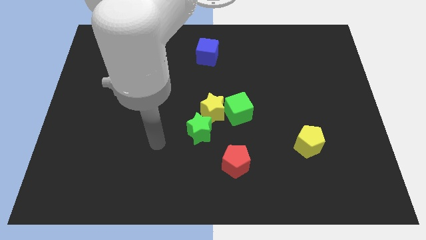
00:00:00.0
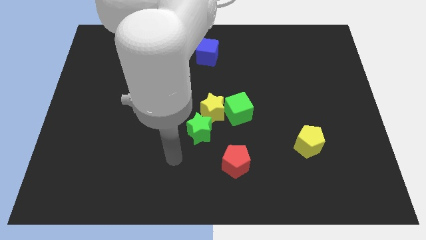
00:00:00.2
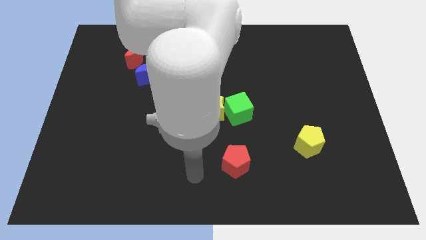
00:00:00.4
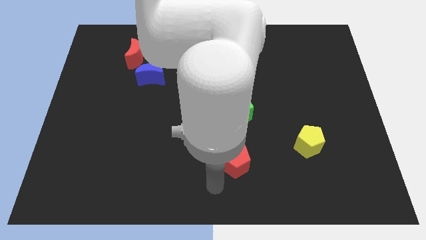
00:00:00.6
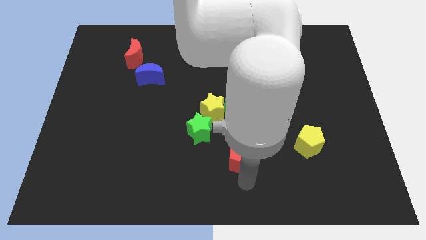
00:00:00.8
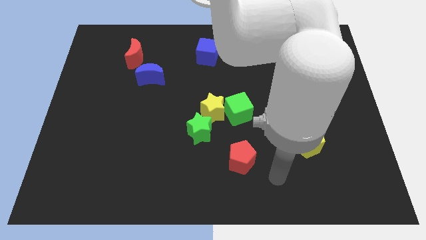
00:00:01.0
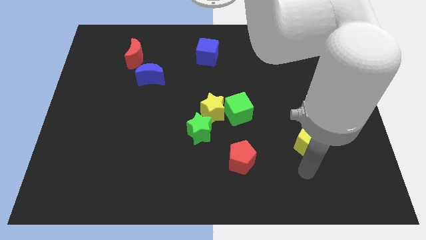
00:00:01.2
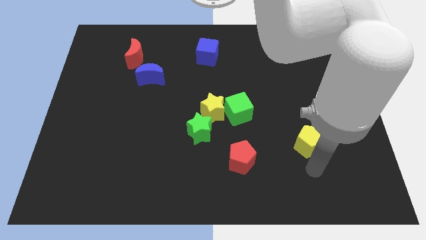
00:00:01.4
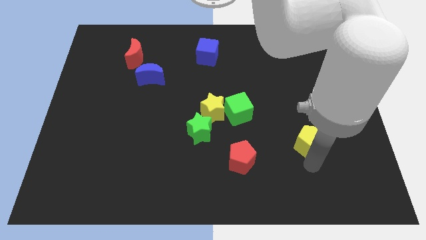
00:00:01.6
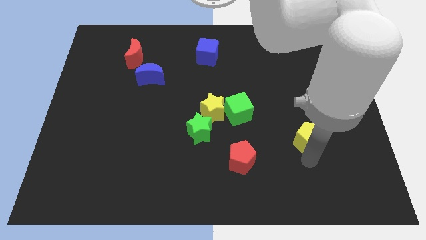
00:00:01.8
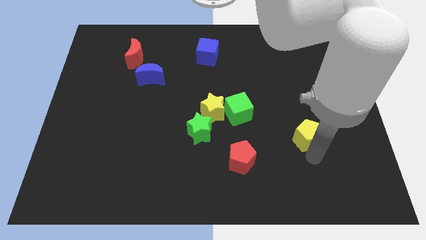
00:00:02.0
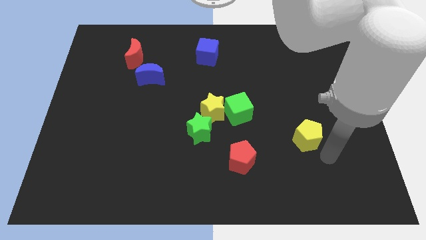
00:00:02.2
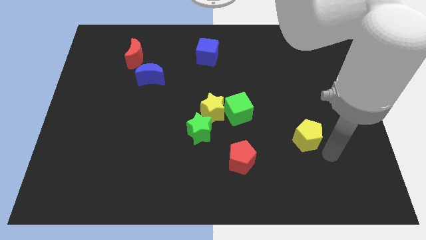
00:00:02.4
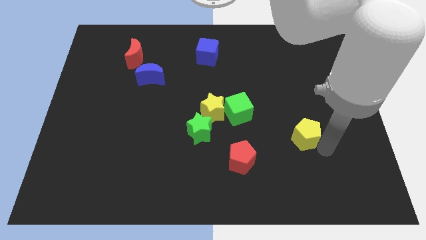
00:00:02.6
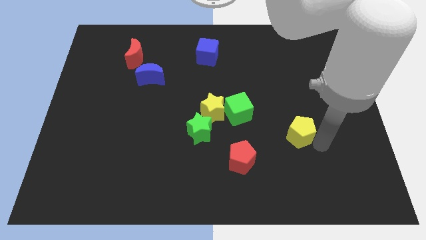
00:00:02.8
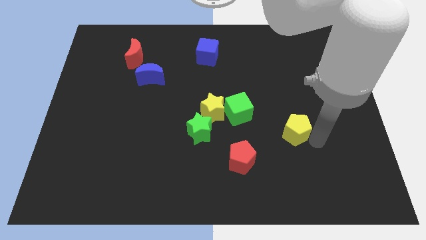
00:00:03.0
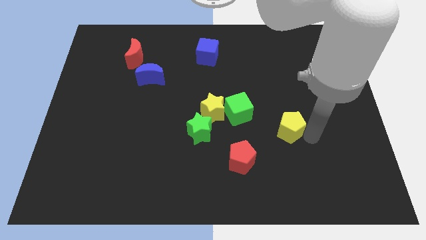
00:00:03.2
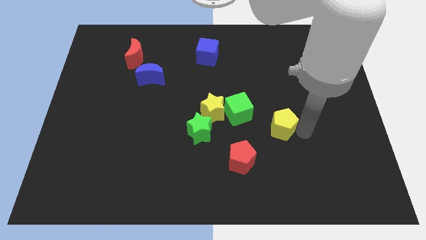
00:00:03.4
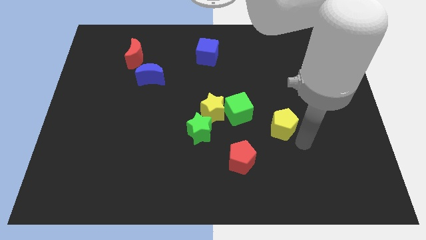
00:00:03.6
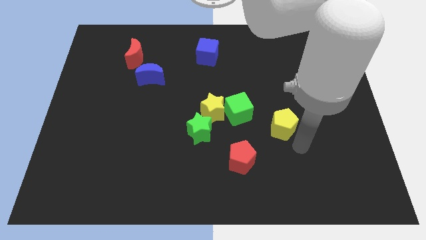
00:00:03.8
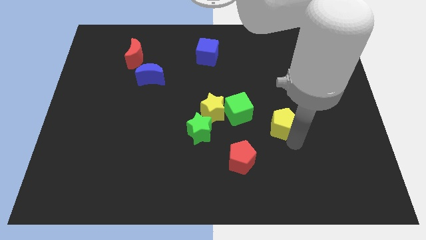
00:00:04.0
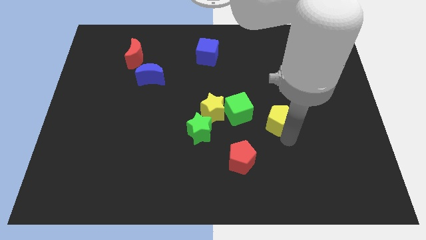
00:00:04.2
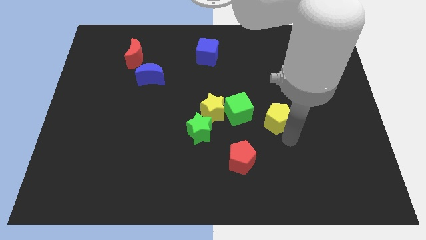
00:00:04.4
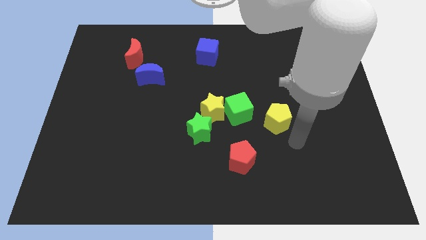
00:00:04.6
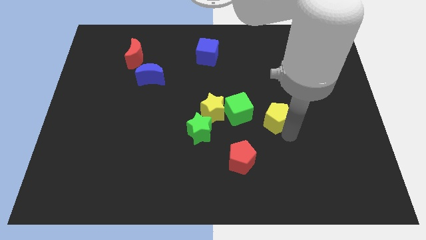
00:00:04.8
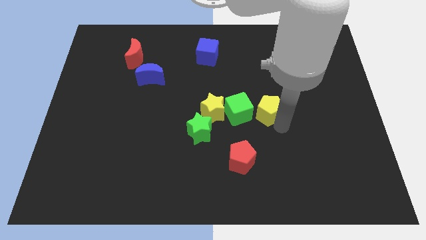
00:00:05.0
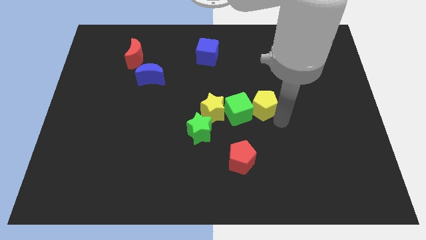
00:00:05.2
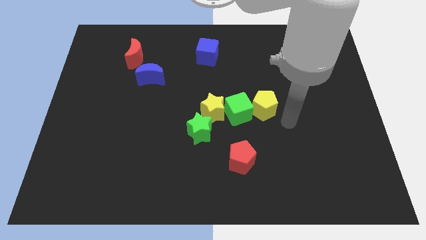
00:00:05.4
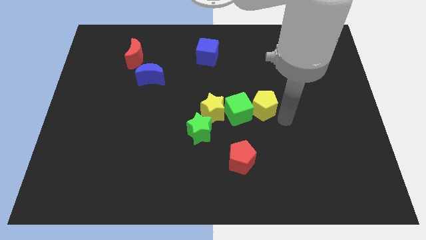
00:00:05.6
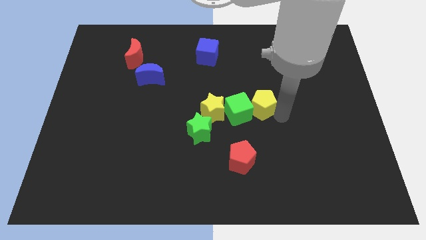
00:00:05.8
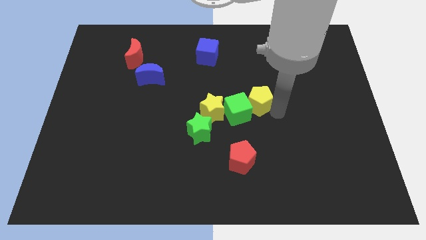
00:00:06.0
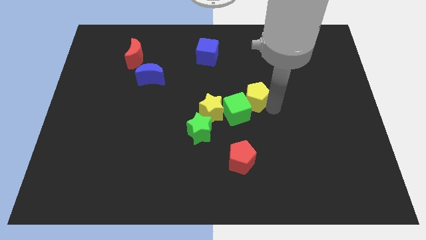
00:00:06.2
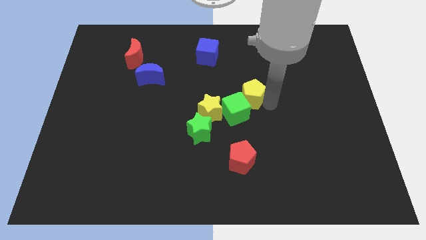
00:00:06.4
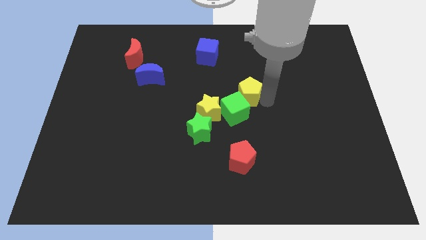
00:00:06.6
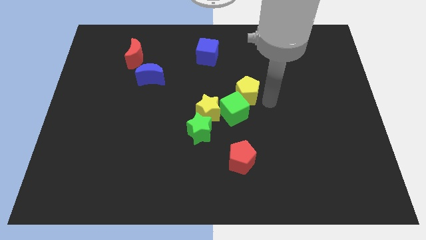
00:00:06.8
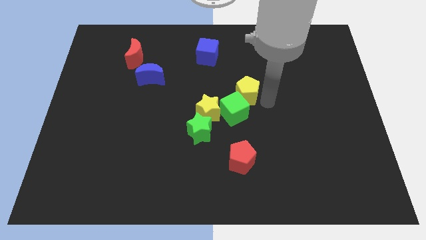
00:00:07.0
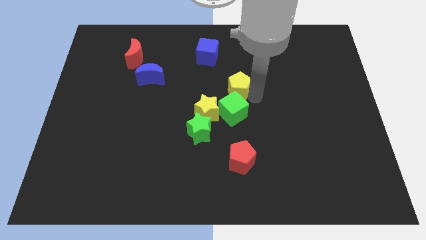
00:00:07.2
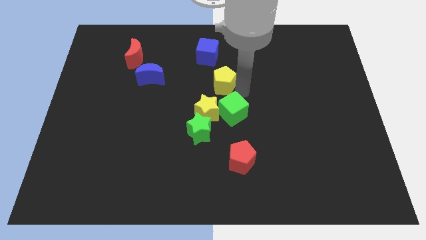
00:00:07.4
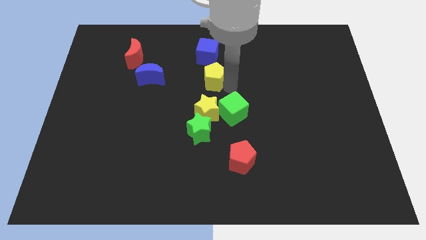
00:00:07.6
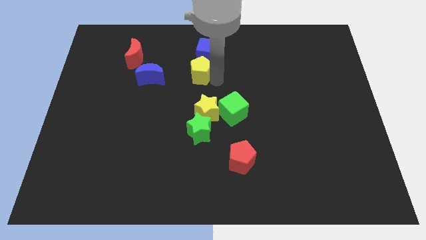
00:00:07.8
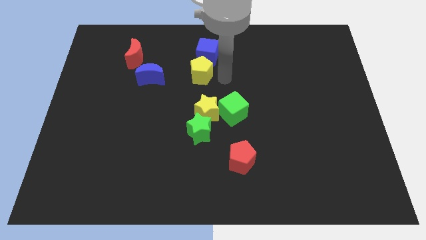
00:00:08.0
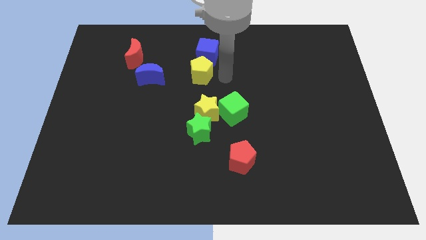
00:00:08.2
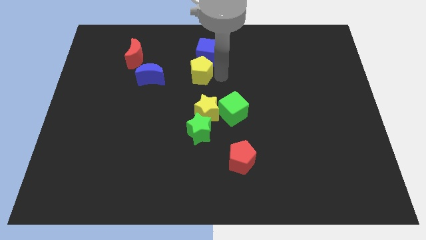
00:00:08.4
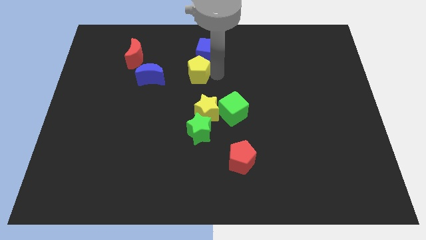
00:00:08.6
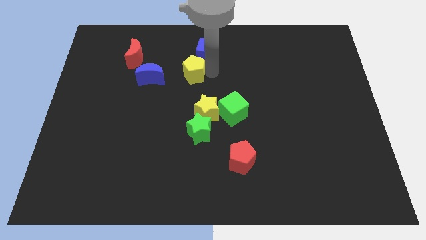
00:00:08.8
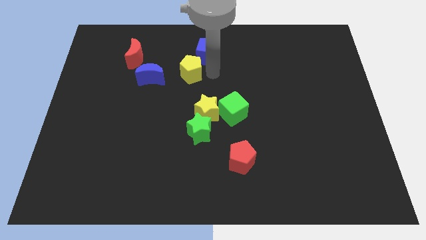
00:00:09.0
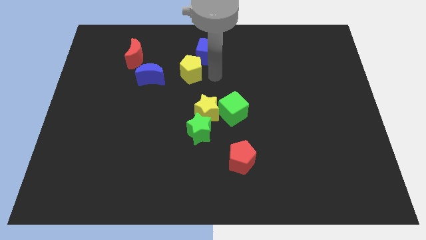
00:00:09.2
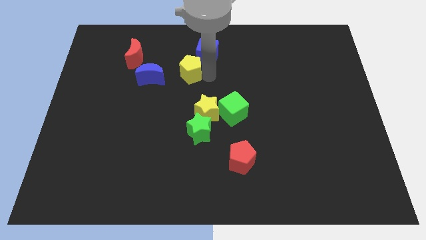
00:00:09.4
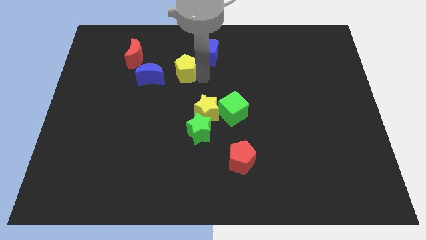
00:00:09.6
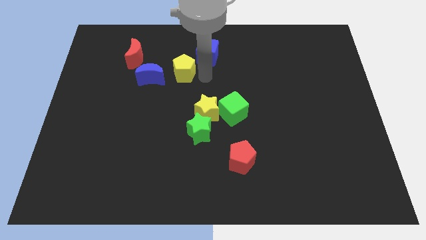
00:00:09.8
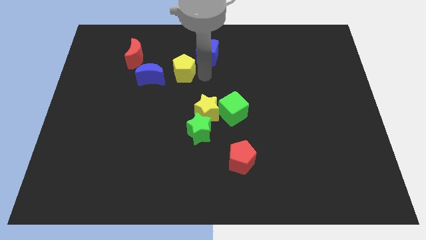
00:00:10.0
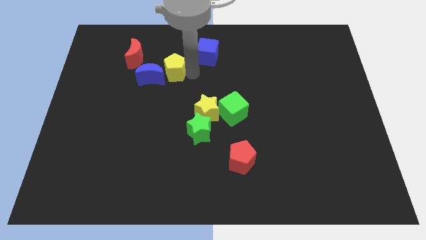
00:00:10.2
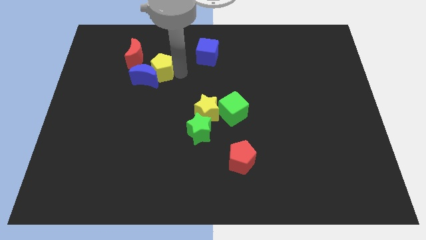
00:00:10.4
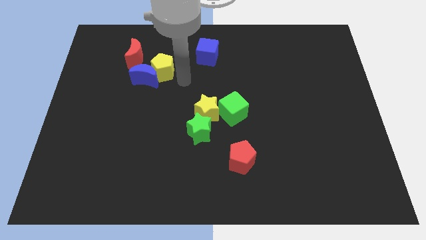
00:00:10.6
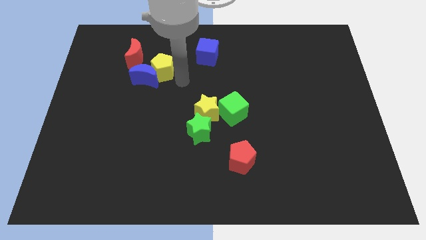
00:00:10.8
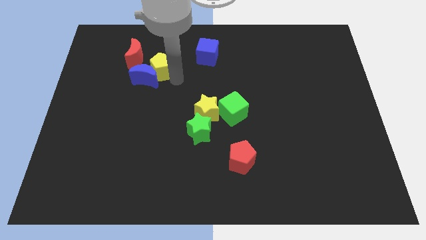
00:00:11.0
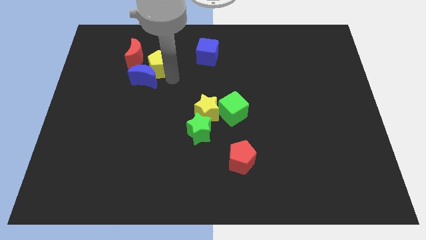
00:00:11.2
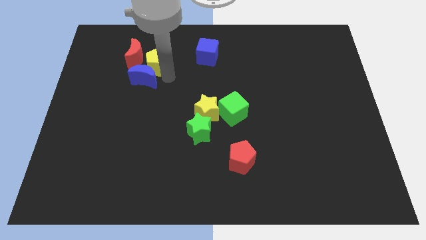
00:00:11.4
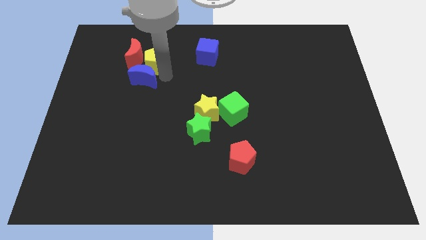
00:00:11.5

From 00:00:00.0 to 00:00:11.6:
slide the yellow pentagon to the red moon

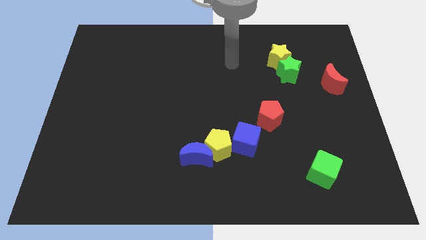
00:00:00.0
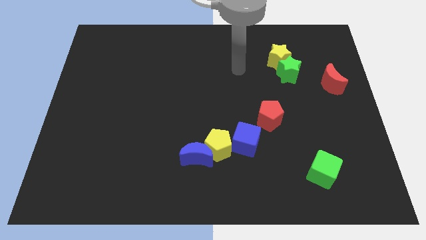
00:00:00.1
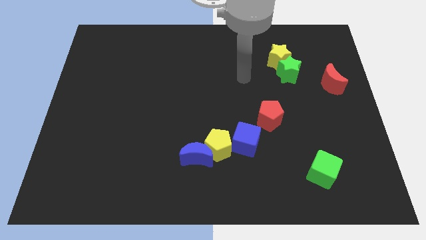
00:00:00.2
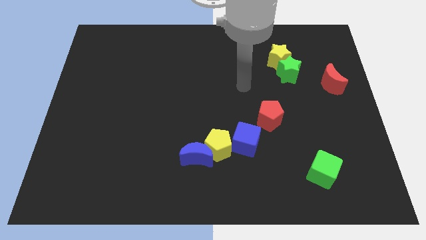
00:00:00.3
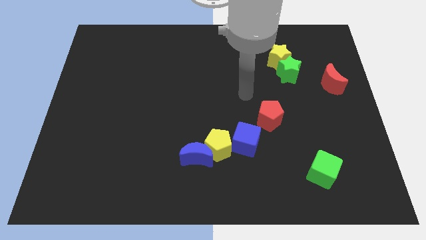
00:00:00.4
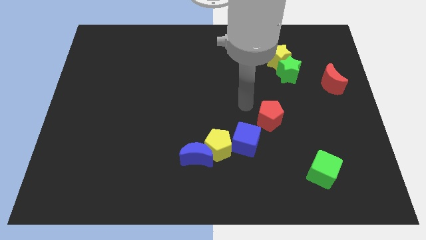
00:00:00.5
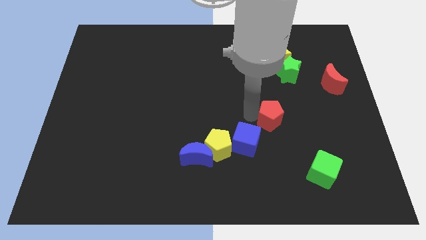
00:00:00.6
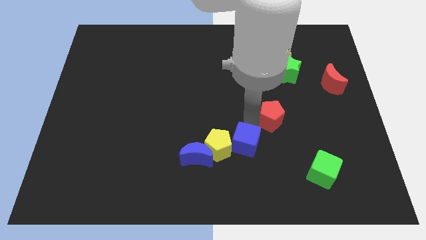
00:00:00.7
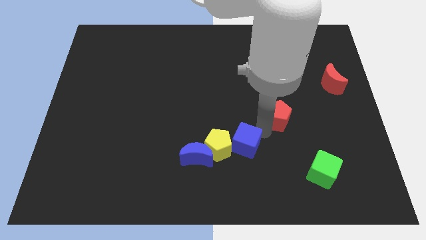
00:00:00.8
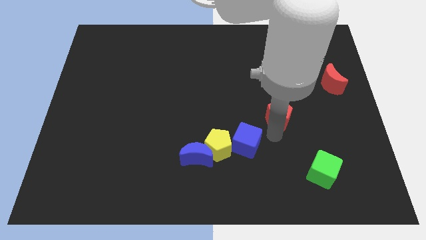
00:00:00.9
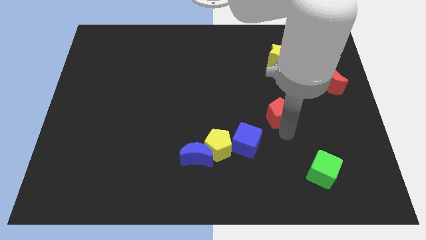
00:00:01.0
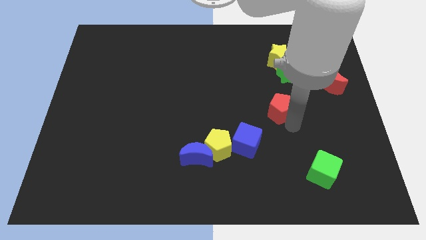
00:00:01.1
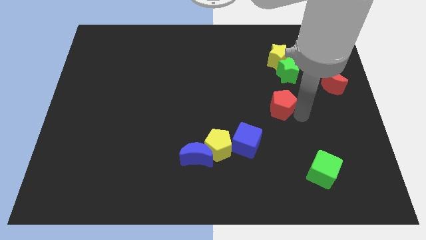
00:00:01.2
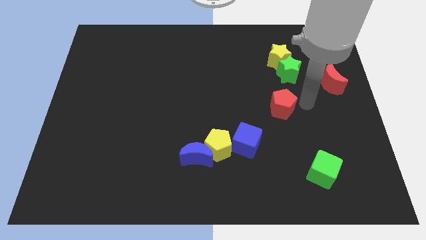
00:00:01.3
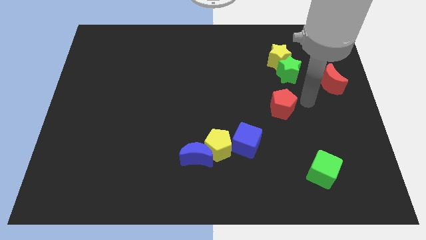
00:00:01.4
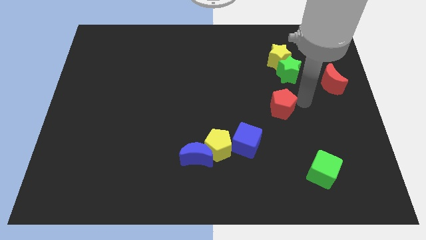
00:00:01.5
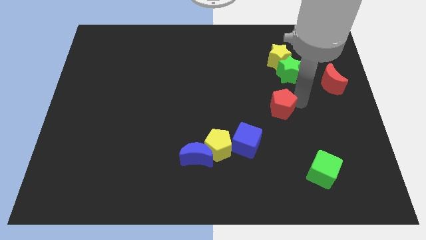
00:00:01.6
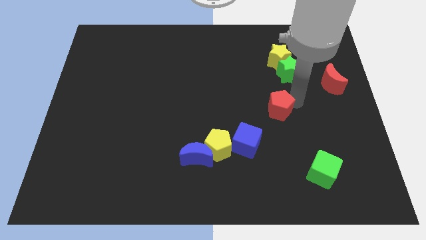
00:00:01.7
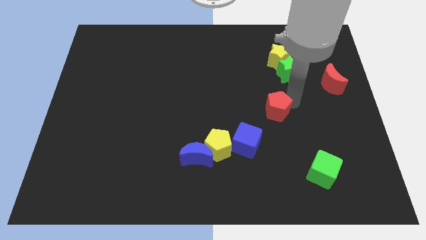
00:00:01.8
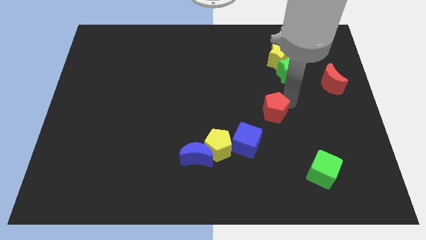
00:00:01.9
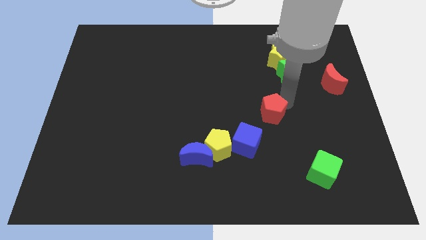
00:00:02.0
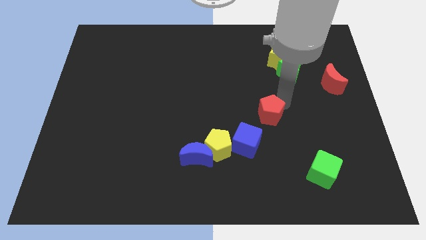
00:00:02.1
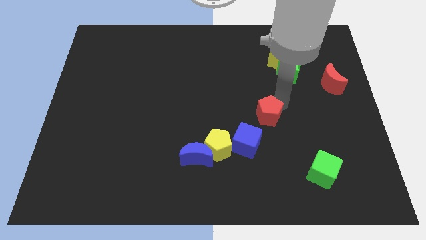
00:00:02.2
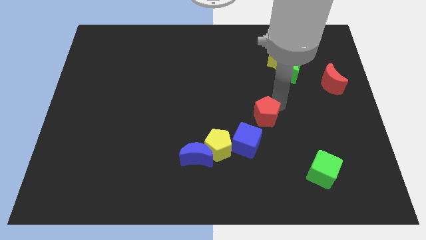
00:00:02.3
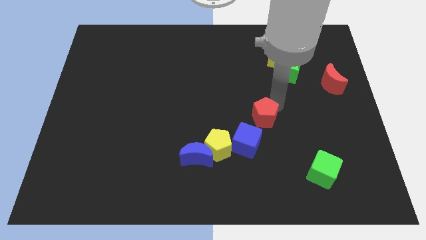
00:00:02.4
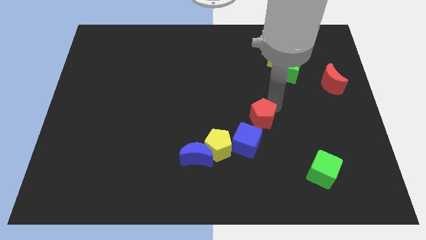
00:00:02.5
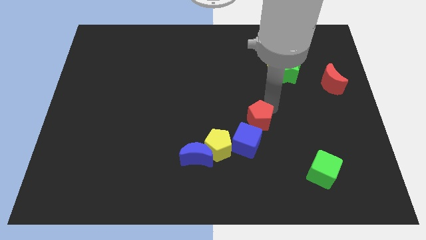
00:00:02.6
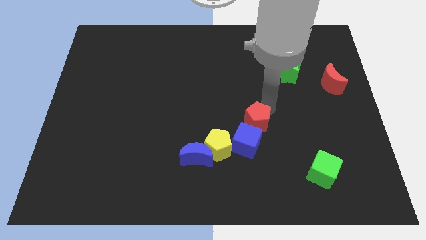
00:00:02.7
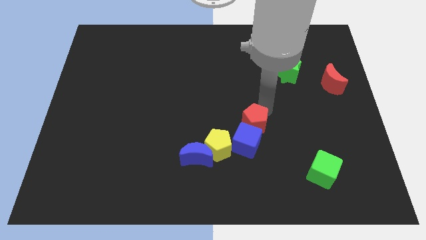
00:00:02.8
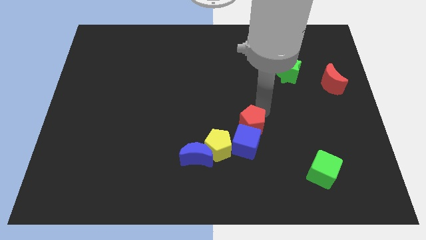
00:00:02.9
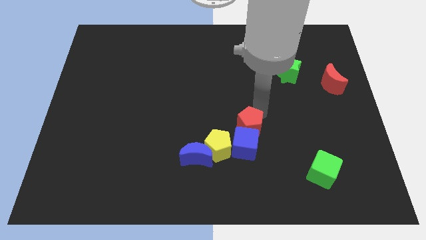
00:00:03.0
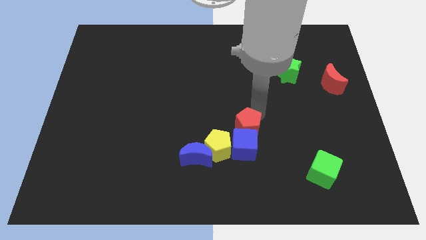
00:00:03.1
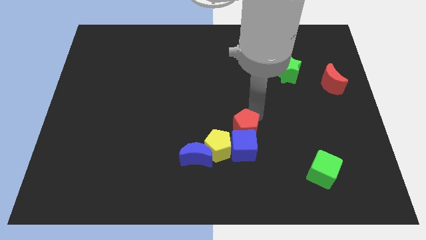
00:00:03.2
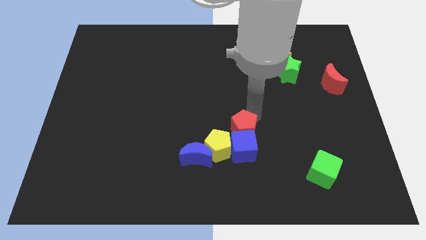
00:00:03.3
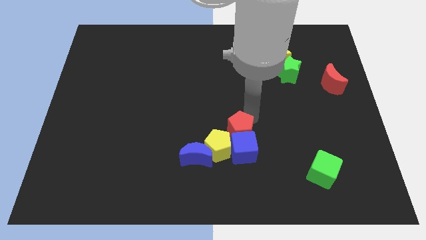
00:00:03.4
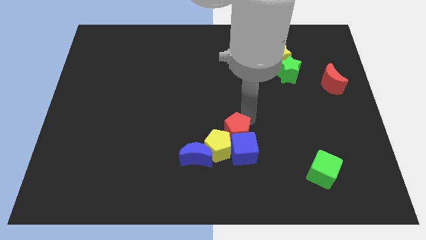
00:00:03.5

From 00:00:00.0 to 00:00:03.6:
move the red pentagon next to the yellow pentagon
